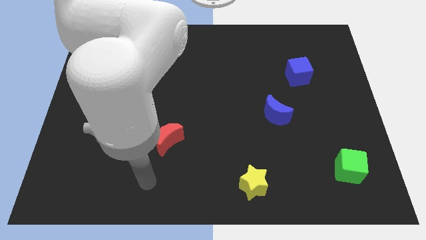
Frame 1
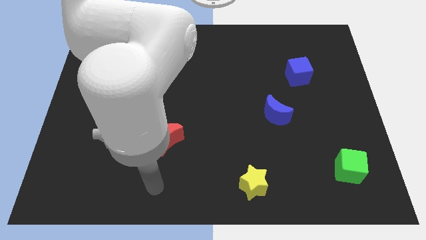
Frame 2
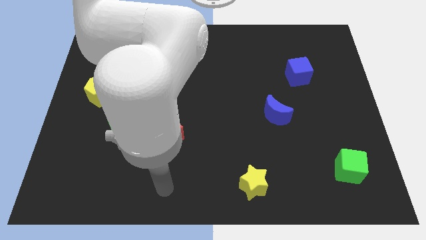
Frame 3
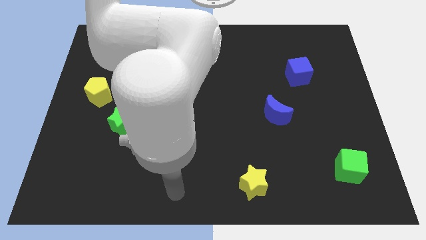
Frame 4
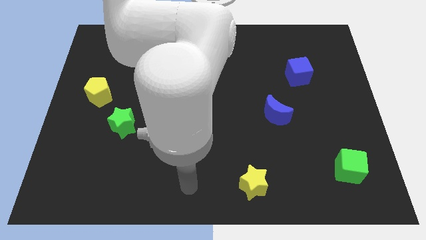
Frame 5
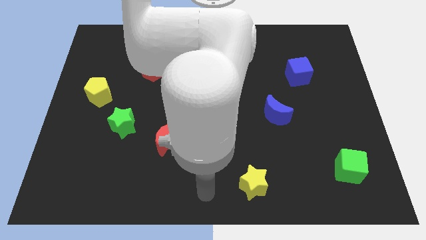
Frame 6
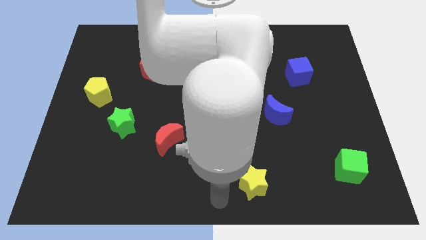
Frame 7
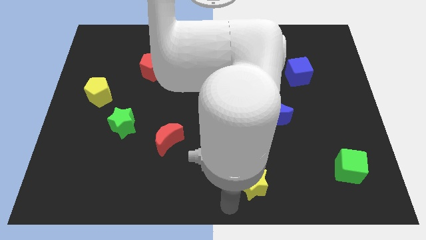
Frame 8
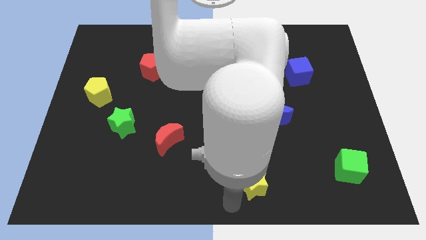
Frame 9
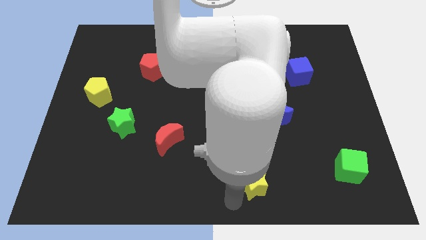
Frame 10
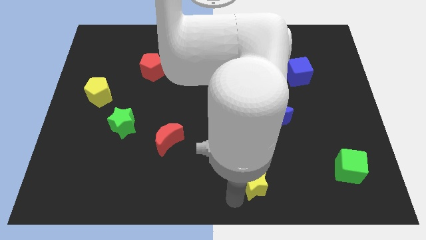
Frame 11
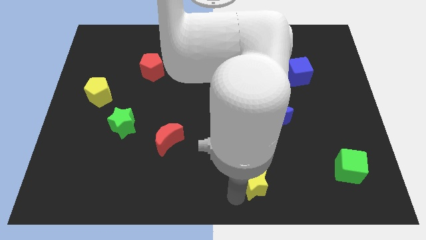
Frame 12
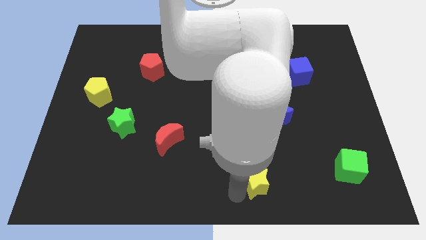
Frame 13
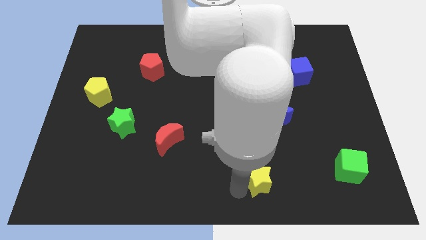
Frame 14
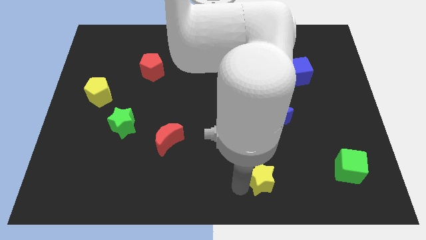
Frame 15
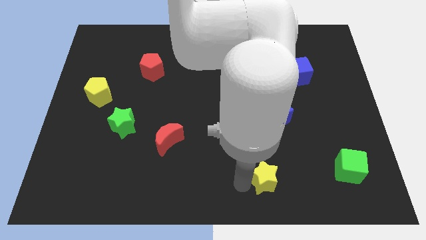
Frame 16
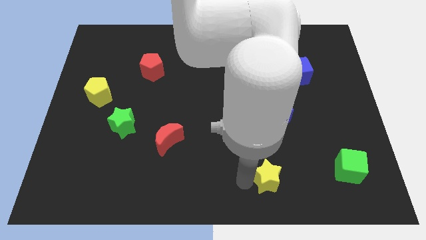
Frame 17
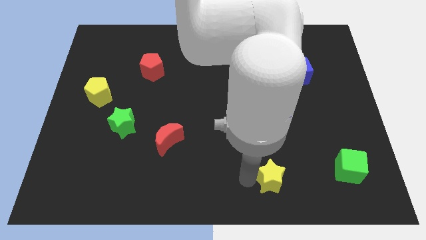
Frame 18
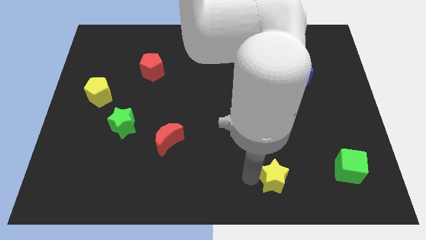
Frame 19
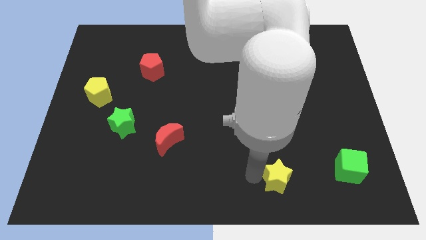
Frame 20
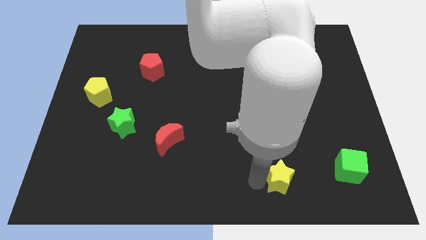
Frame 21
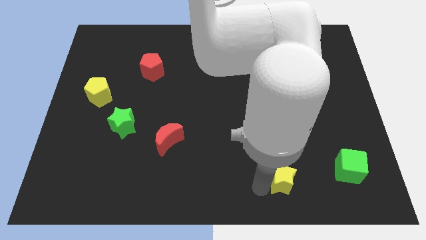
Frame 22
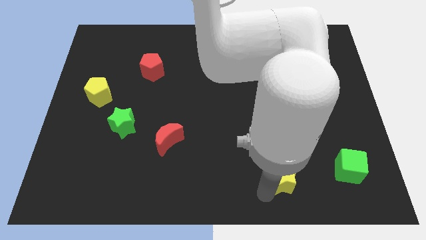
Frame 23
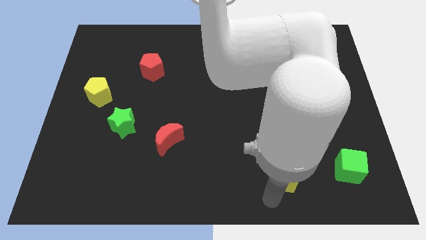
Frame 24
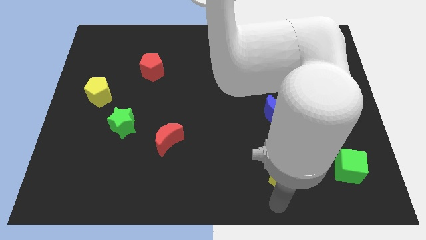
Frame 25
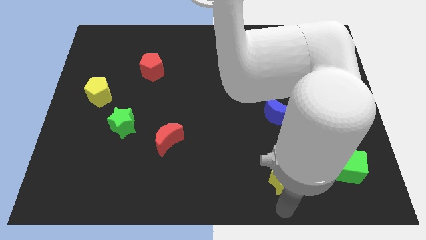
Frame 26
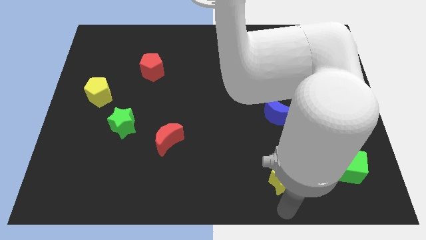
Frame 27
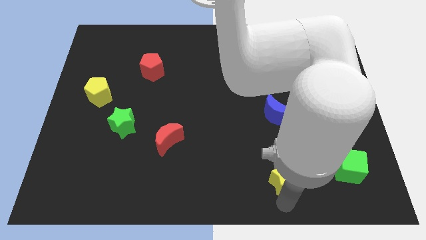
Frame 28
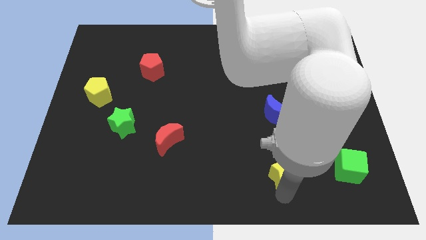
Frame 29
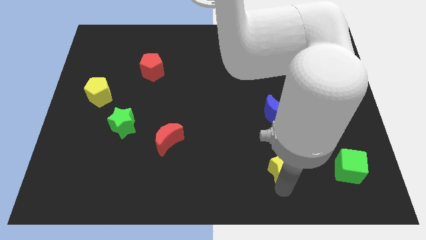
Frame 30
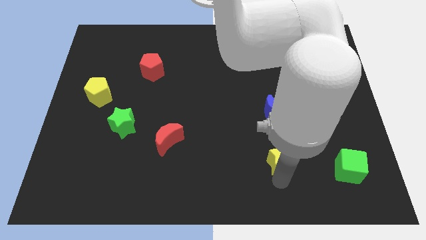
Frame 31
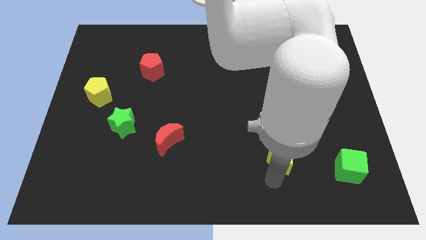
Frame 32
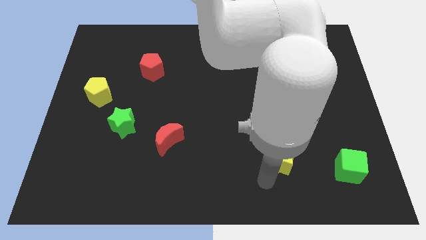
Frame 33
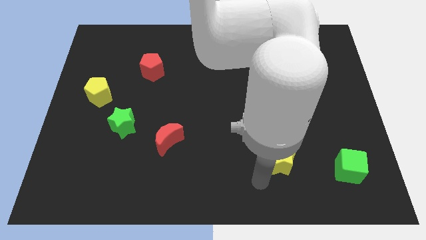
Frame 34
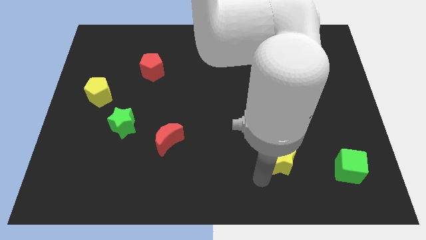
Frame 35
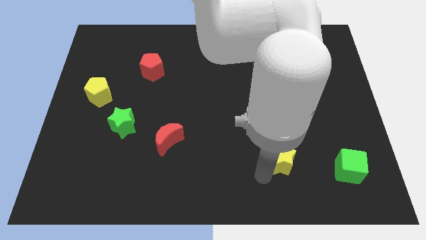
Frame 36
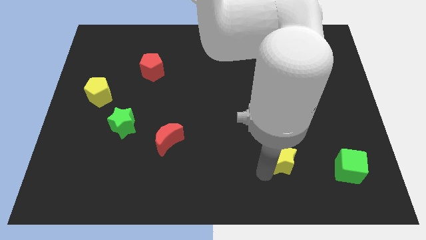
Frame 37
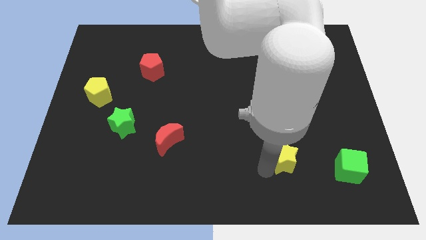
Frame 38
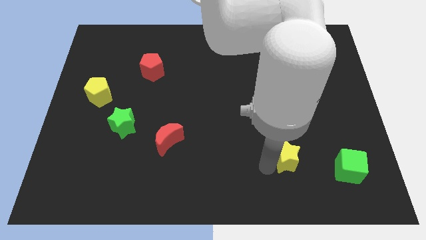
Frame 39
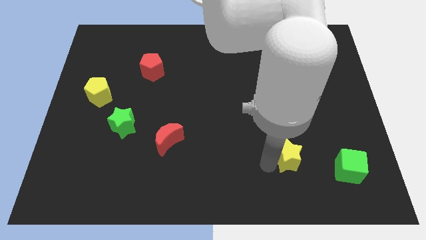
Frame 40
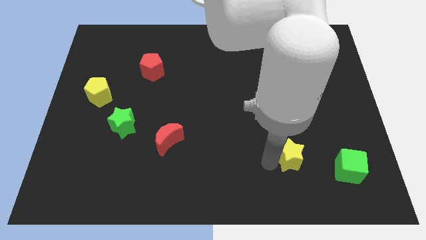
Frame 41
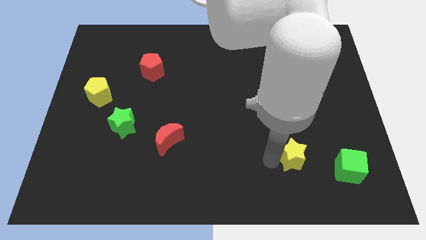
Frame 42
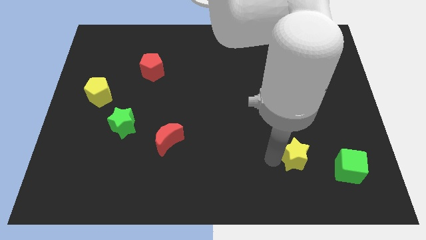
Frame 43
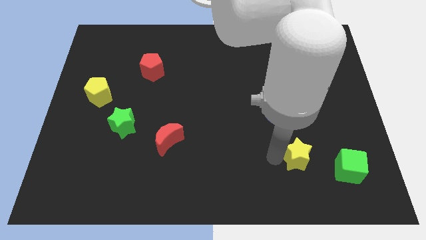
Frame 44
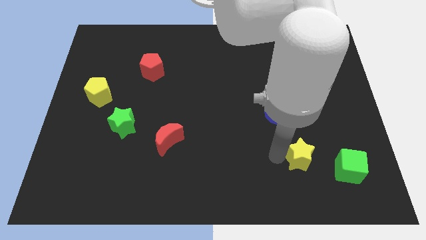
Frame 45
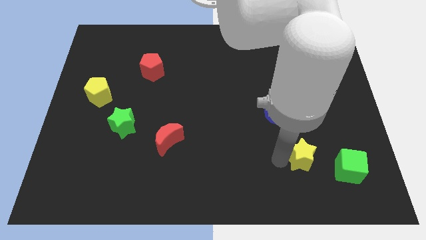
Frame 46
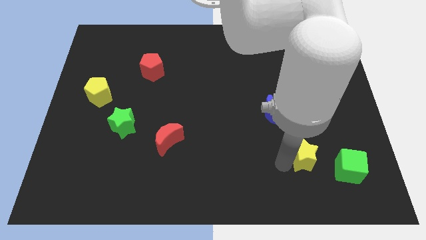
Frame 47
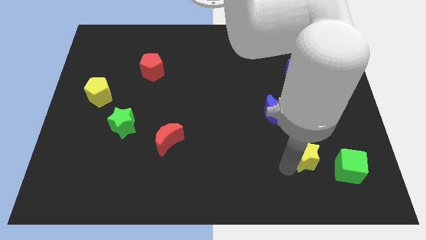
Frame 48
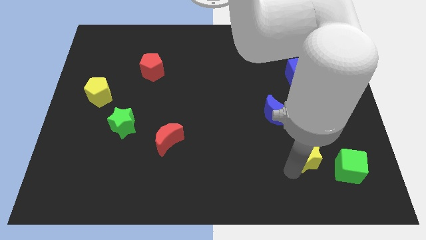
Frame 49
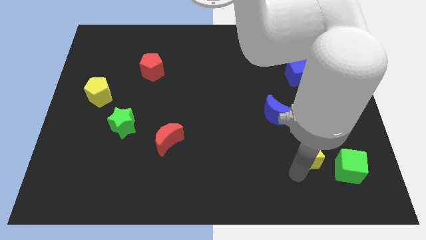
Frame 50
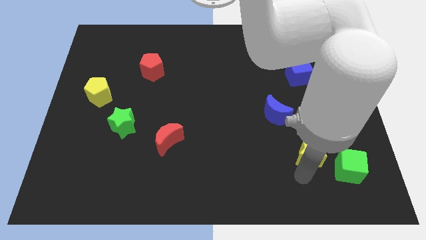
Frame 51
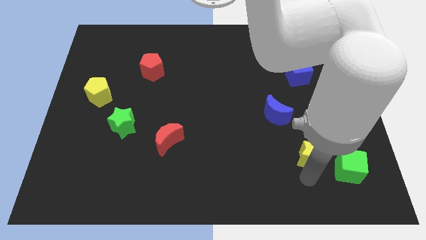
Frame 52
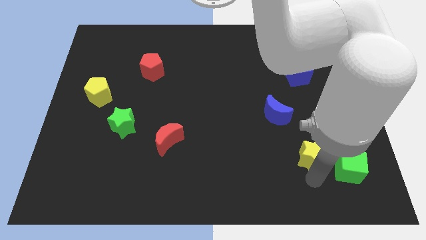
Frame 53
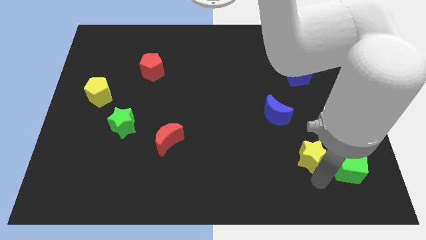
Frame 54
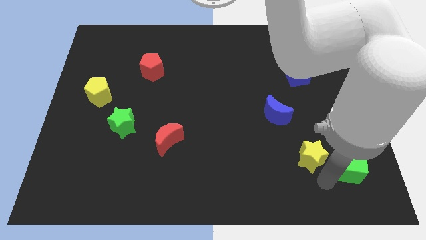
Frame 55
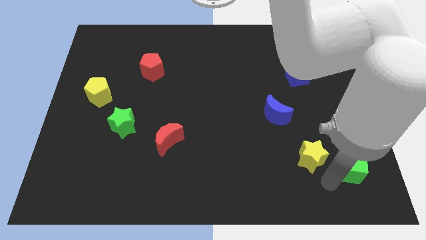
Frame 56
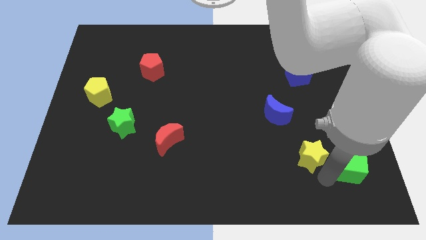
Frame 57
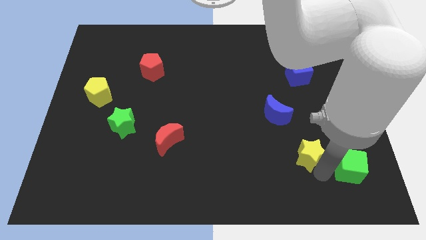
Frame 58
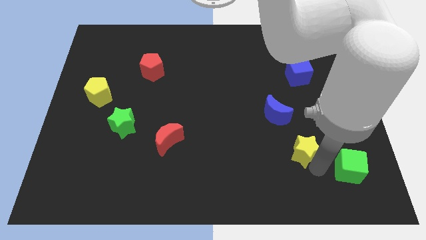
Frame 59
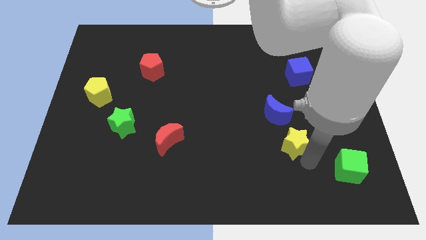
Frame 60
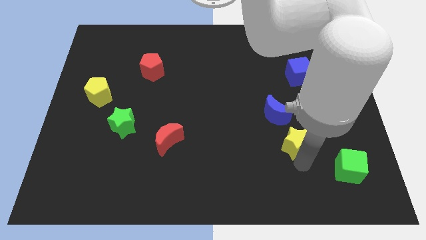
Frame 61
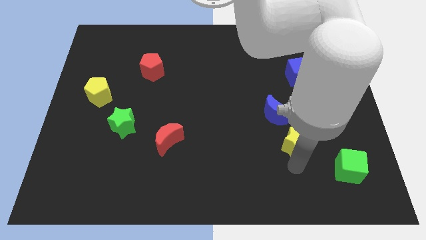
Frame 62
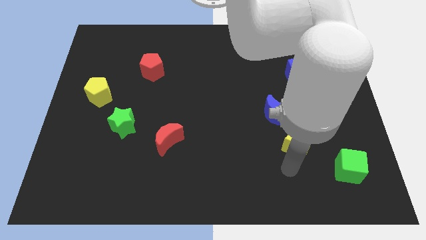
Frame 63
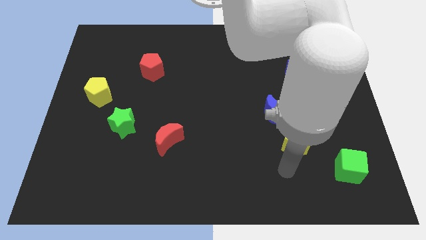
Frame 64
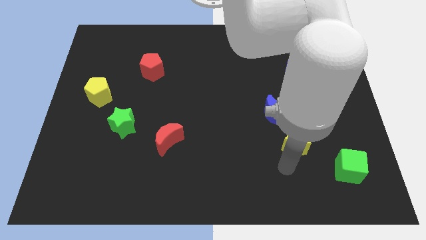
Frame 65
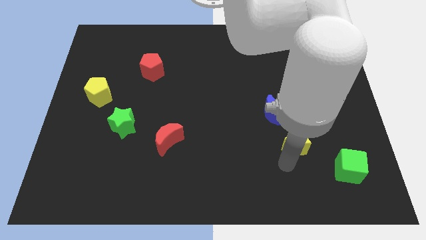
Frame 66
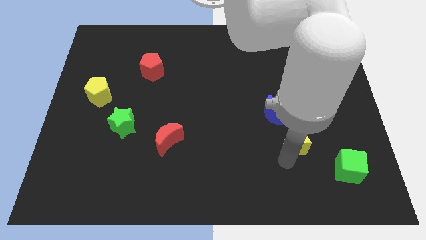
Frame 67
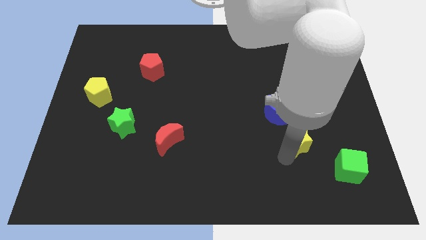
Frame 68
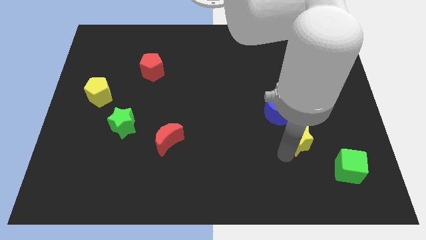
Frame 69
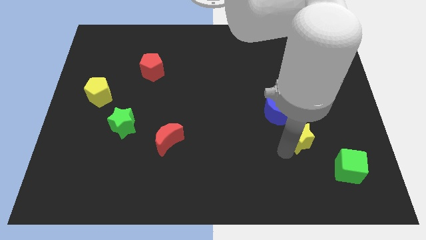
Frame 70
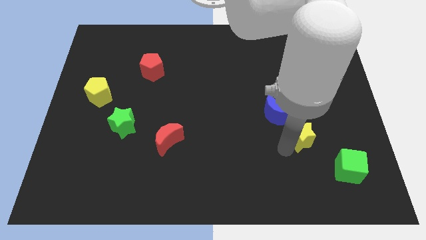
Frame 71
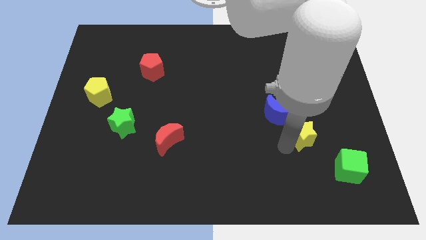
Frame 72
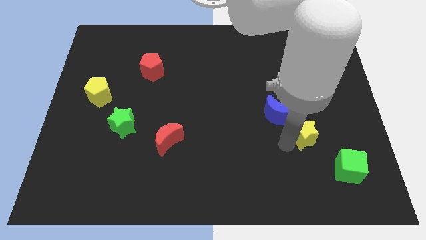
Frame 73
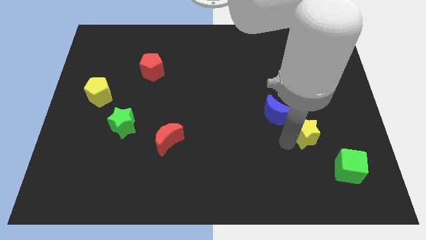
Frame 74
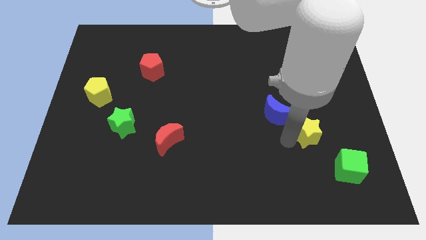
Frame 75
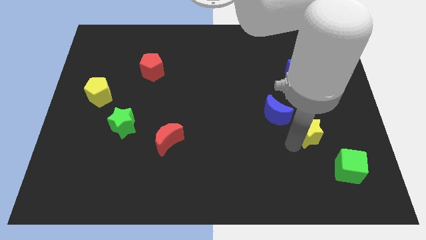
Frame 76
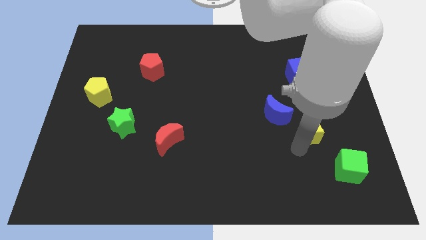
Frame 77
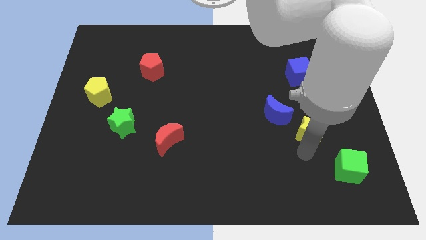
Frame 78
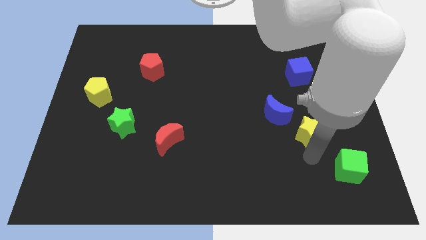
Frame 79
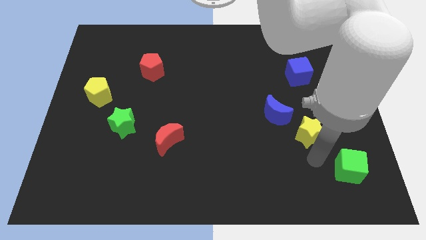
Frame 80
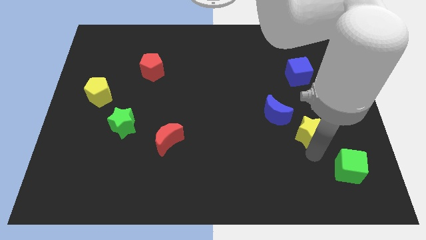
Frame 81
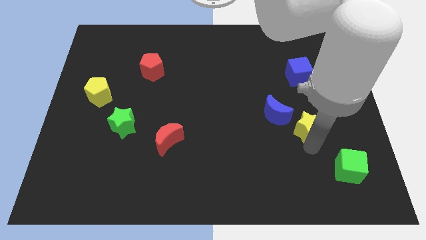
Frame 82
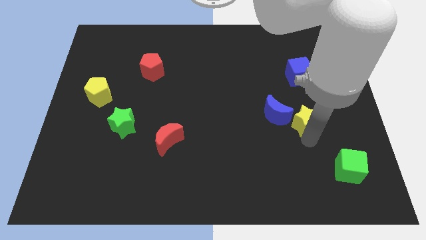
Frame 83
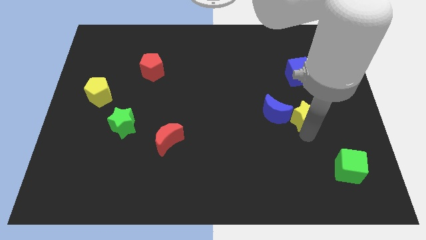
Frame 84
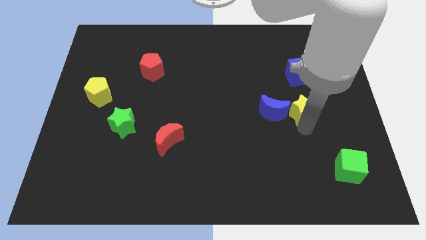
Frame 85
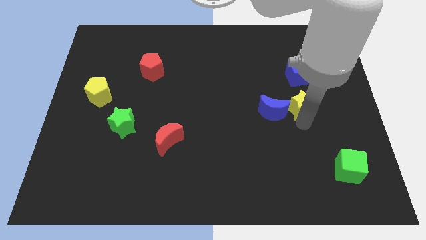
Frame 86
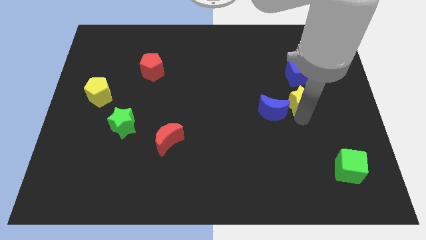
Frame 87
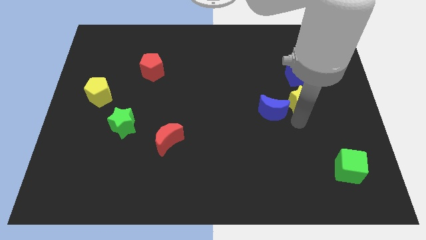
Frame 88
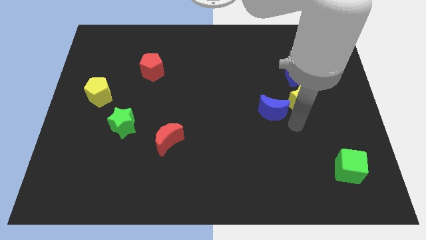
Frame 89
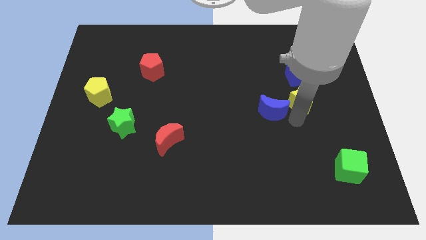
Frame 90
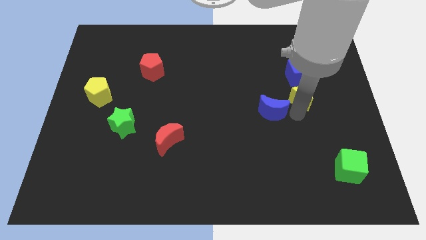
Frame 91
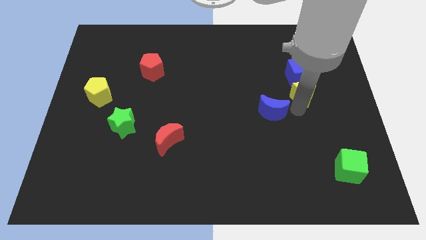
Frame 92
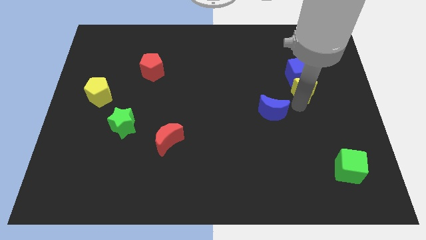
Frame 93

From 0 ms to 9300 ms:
push the yellow star close to the blue cube
